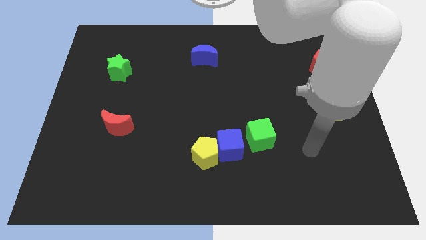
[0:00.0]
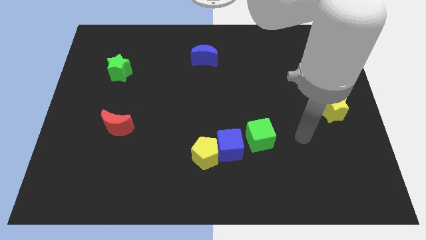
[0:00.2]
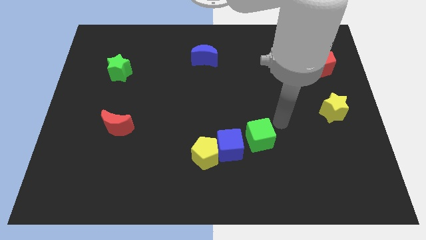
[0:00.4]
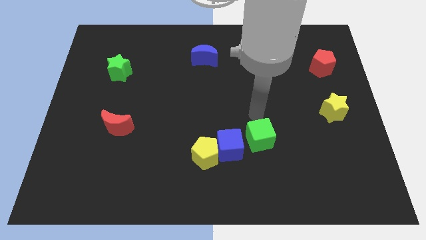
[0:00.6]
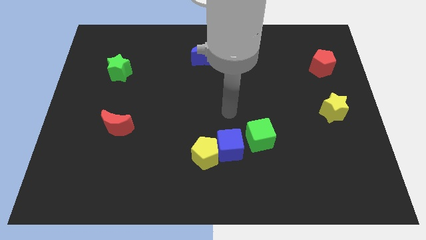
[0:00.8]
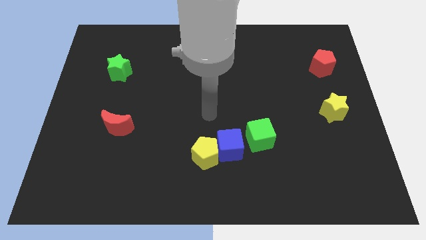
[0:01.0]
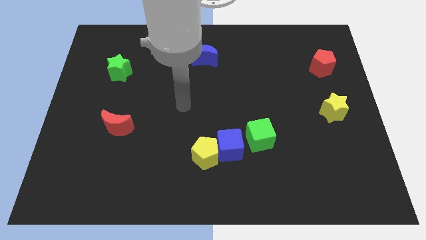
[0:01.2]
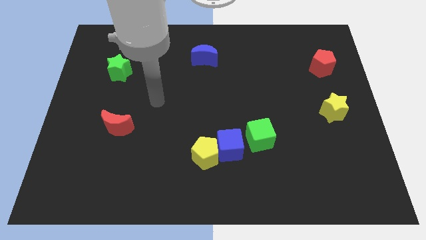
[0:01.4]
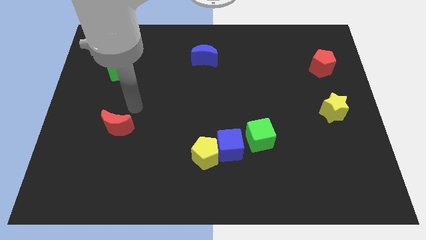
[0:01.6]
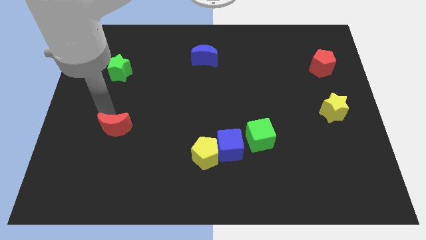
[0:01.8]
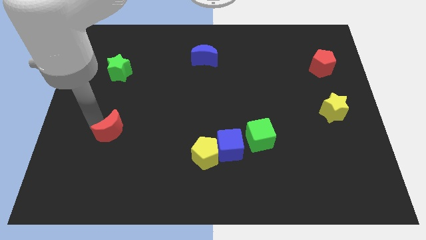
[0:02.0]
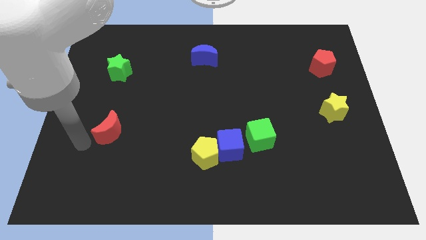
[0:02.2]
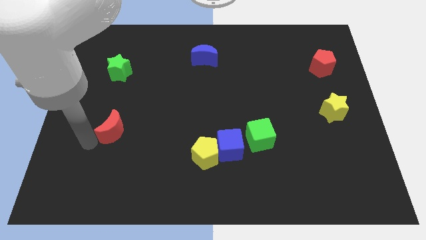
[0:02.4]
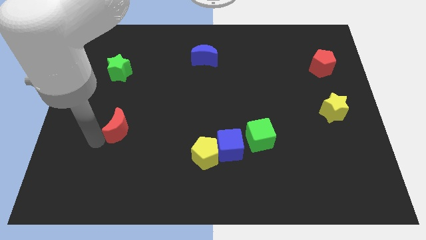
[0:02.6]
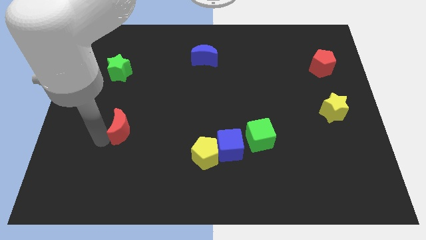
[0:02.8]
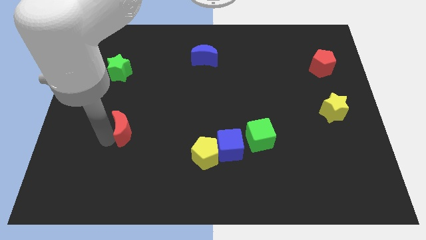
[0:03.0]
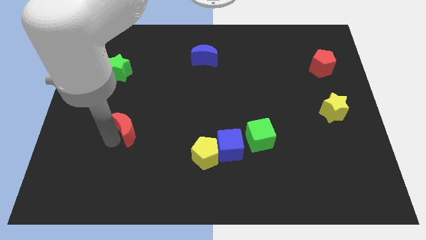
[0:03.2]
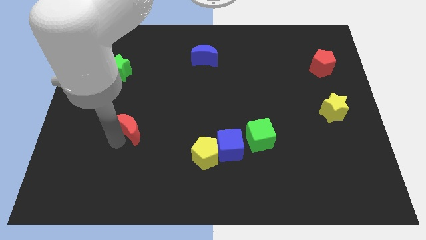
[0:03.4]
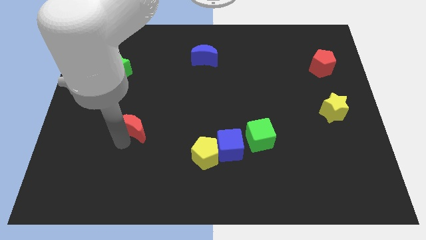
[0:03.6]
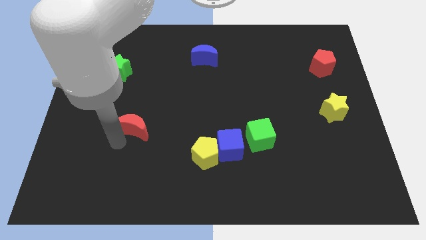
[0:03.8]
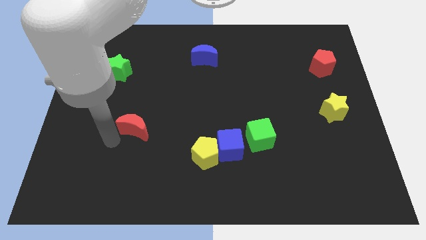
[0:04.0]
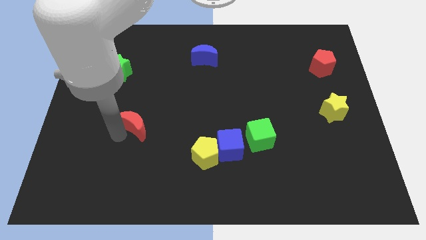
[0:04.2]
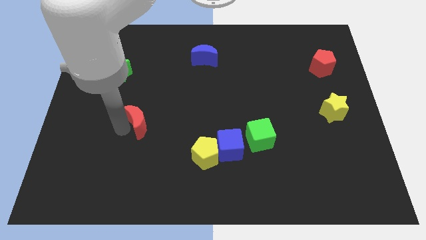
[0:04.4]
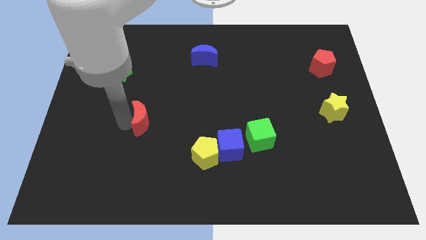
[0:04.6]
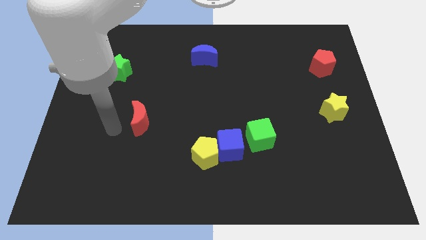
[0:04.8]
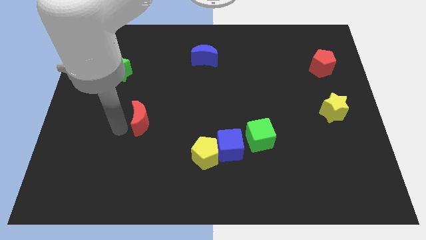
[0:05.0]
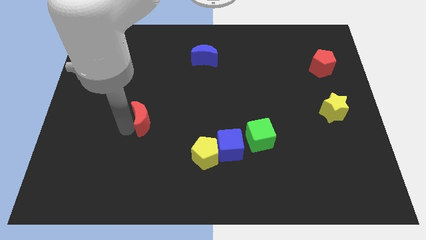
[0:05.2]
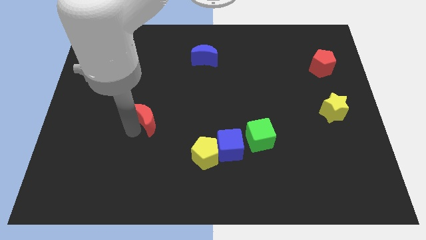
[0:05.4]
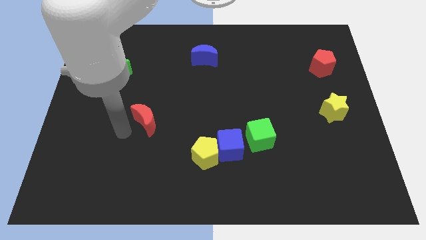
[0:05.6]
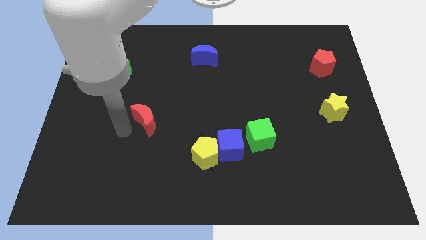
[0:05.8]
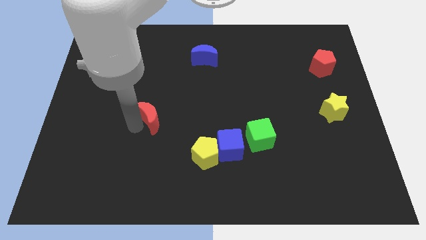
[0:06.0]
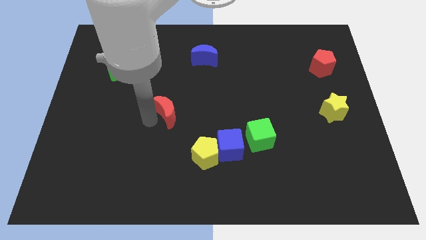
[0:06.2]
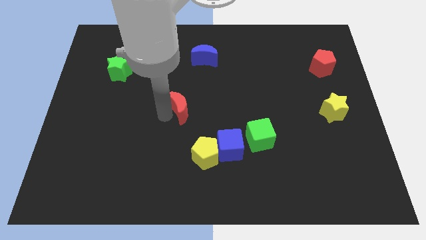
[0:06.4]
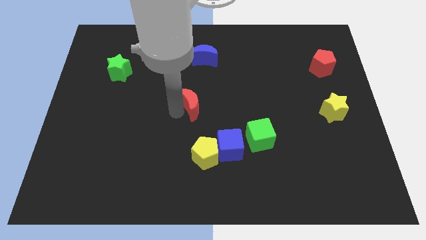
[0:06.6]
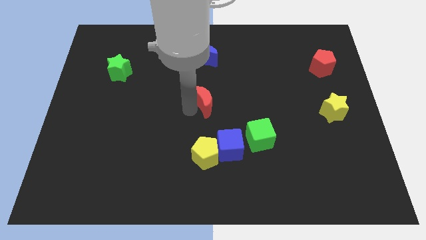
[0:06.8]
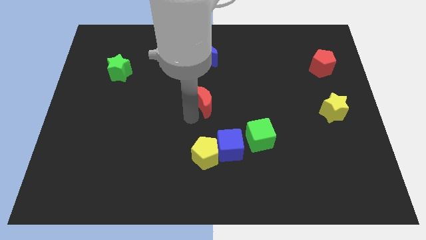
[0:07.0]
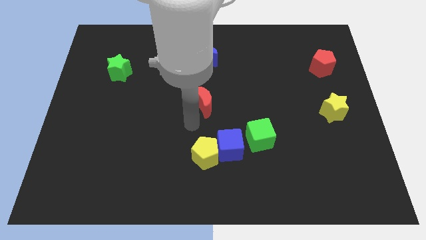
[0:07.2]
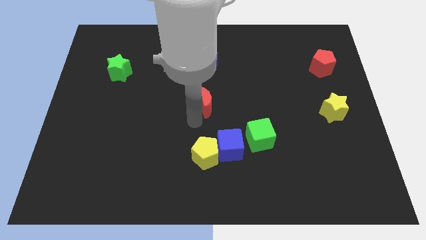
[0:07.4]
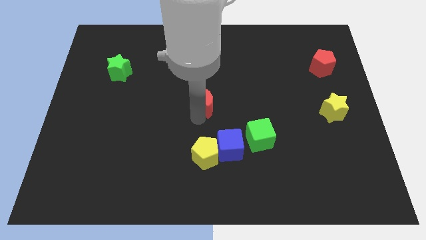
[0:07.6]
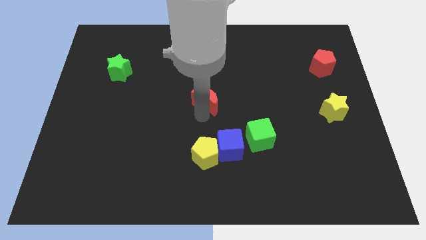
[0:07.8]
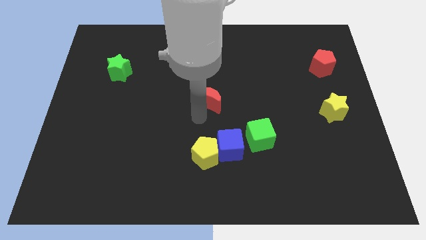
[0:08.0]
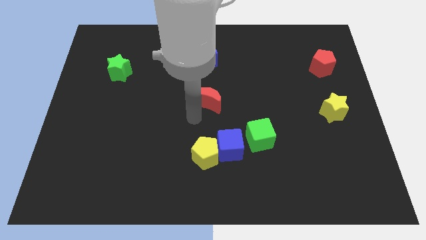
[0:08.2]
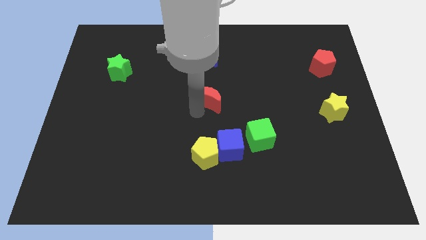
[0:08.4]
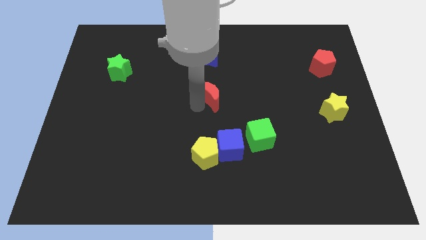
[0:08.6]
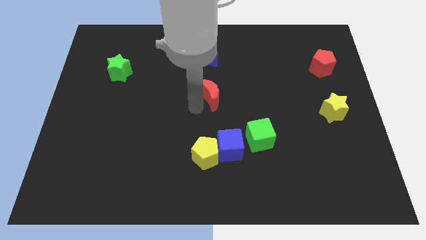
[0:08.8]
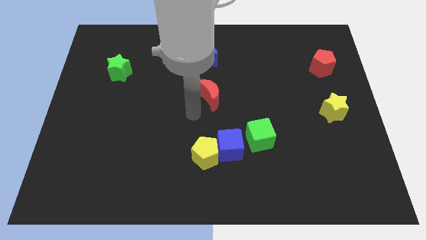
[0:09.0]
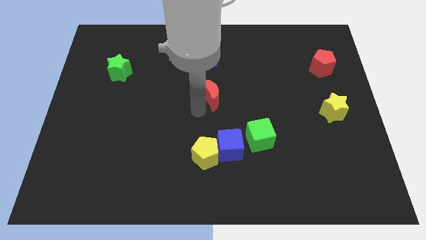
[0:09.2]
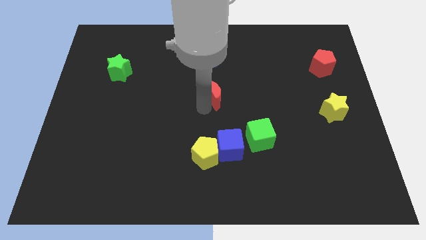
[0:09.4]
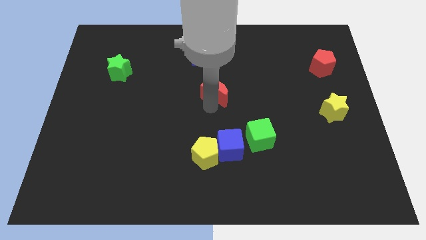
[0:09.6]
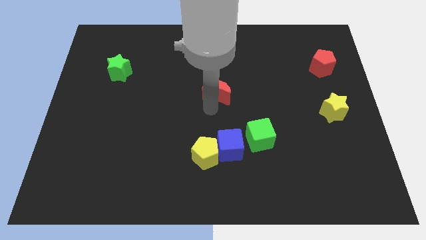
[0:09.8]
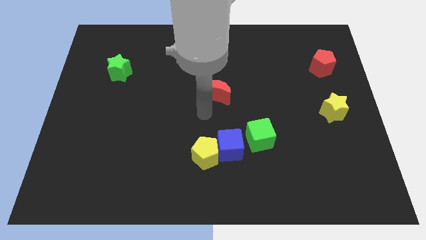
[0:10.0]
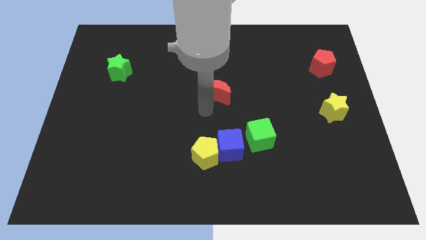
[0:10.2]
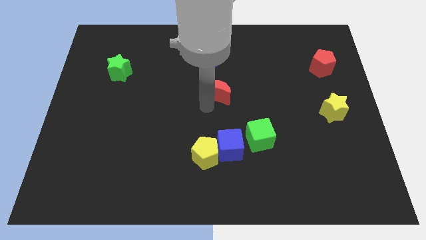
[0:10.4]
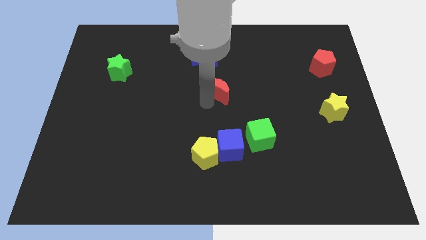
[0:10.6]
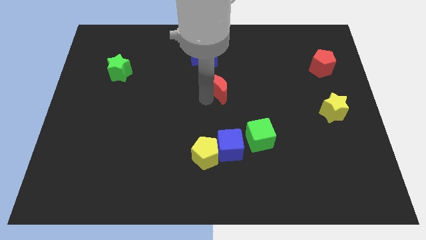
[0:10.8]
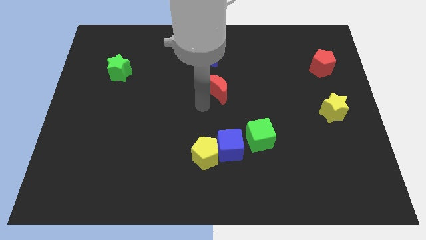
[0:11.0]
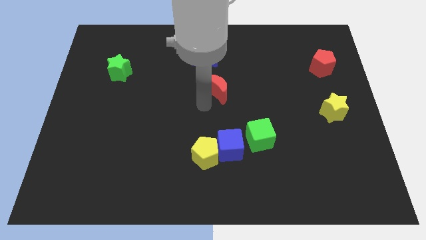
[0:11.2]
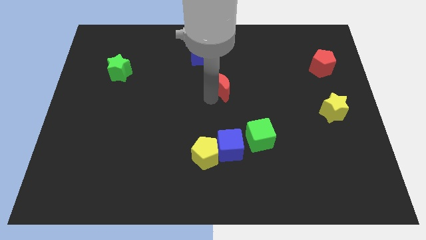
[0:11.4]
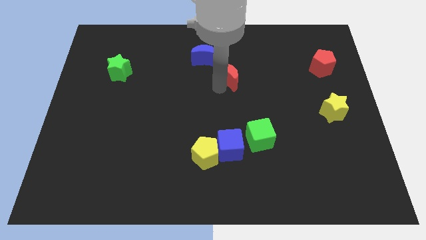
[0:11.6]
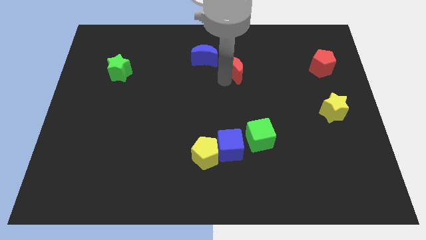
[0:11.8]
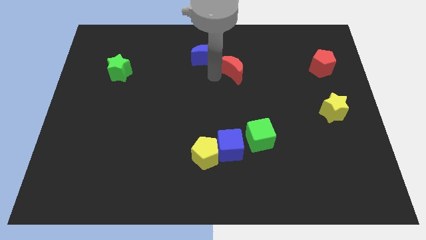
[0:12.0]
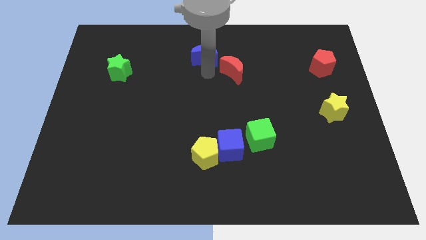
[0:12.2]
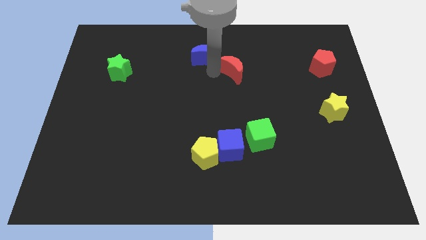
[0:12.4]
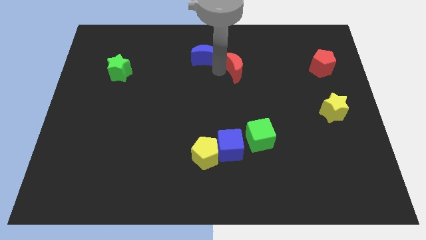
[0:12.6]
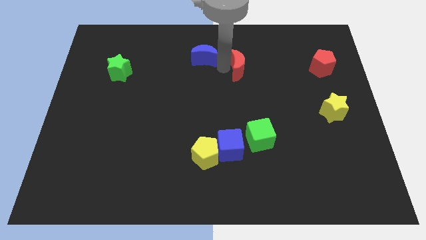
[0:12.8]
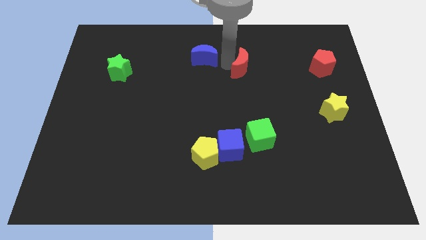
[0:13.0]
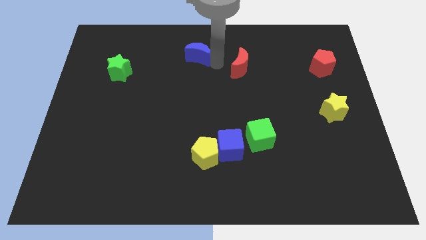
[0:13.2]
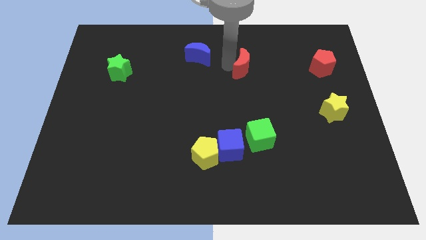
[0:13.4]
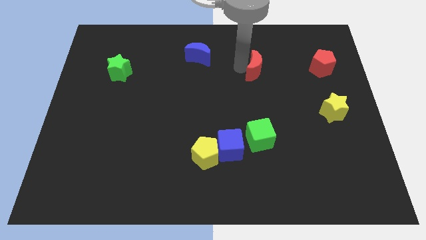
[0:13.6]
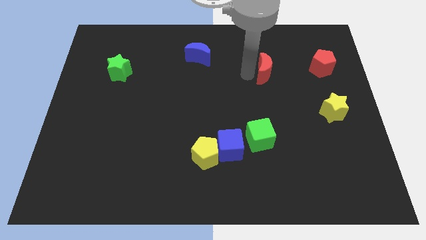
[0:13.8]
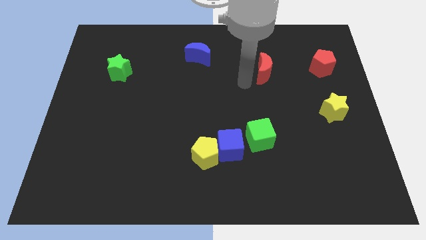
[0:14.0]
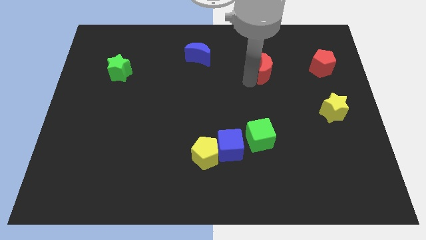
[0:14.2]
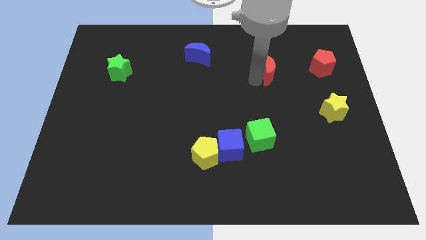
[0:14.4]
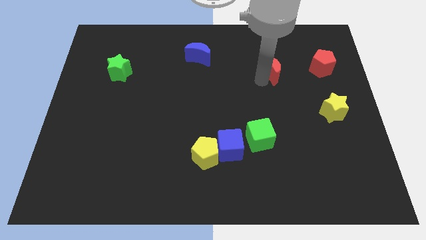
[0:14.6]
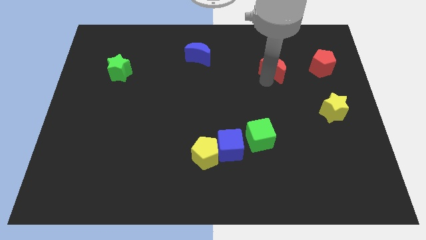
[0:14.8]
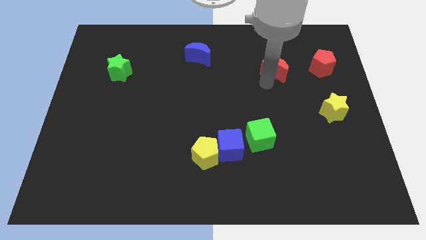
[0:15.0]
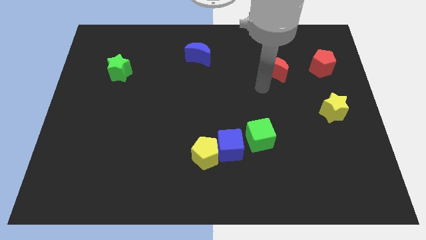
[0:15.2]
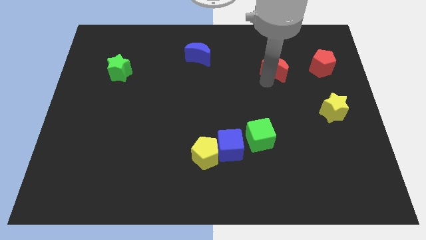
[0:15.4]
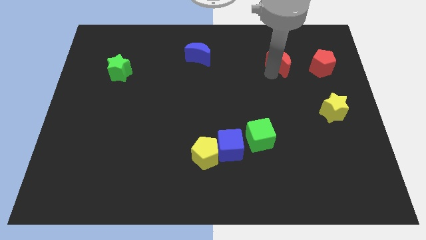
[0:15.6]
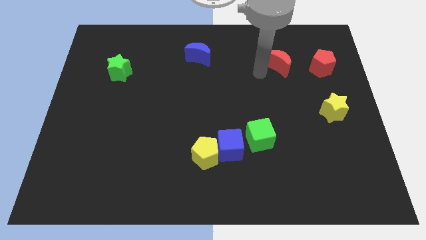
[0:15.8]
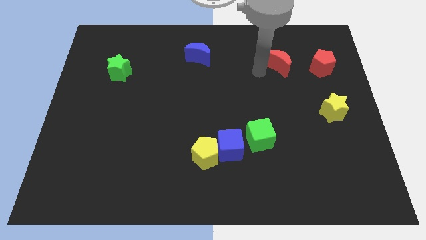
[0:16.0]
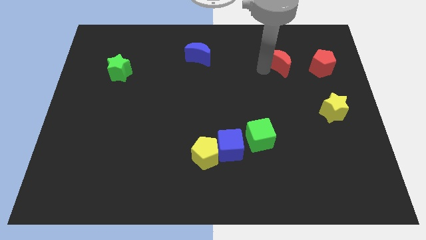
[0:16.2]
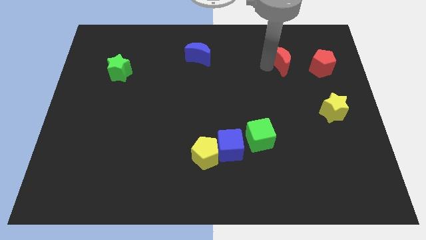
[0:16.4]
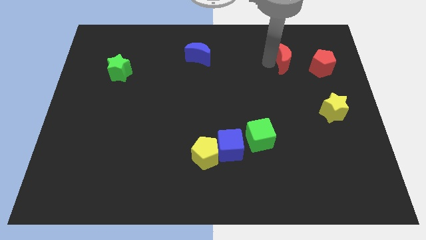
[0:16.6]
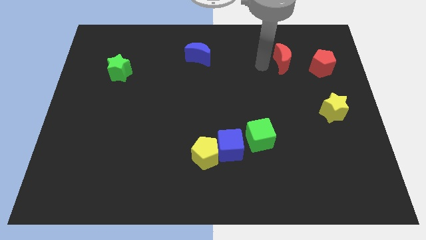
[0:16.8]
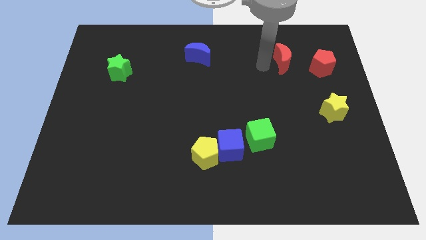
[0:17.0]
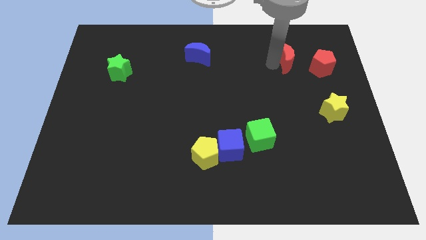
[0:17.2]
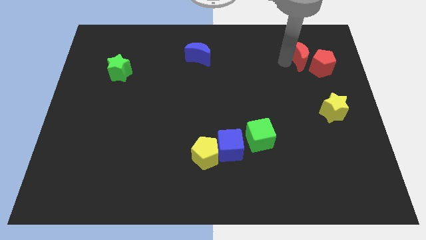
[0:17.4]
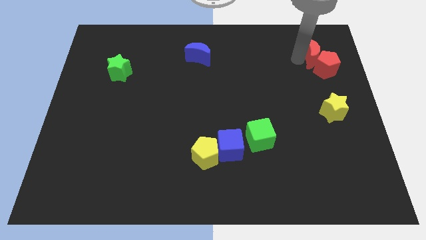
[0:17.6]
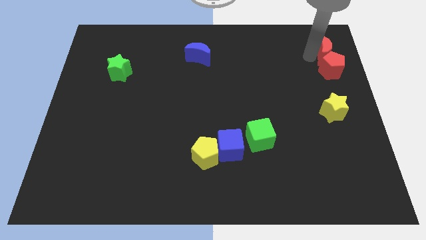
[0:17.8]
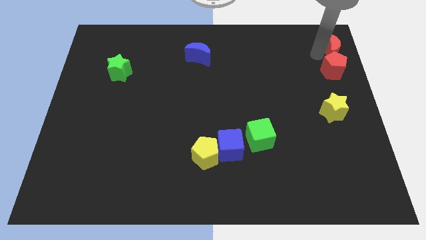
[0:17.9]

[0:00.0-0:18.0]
slide the red moon to the top right of the board
